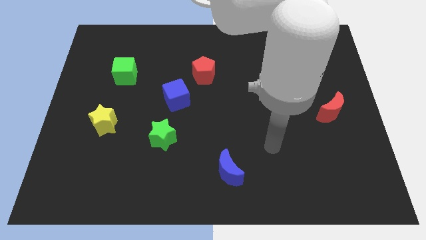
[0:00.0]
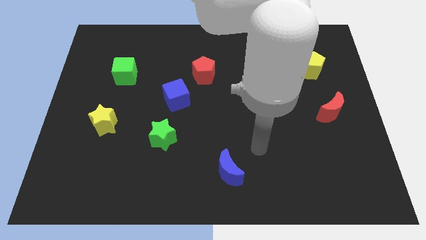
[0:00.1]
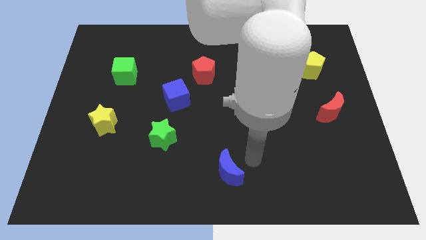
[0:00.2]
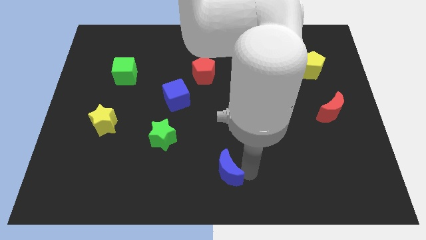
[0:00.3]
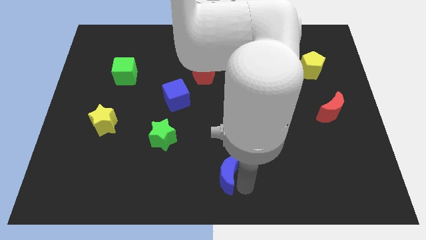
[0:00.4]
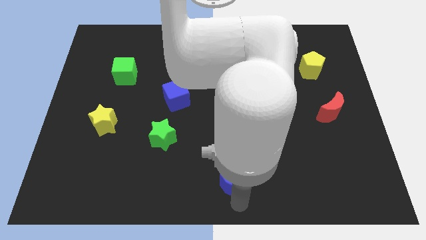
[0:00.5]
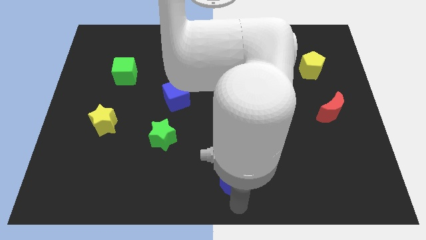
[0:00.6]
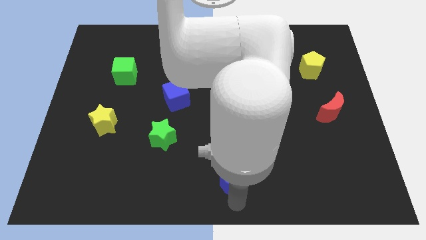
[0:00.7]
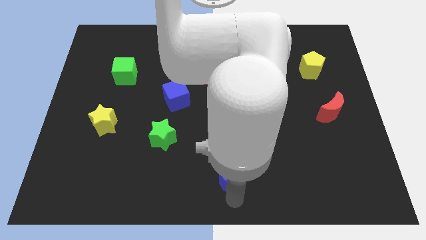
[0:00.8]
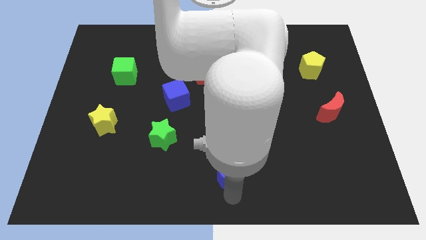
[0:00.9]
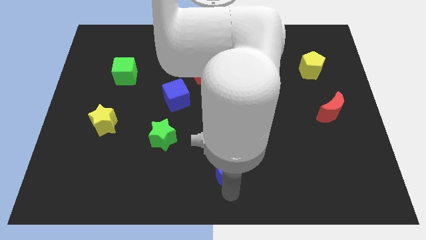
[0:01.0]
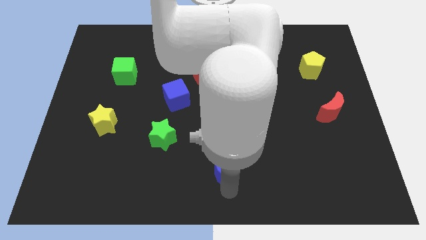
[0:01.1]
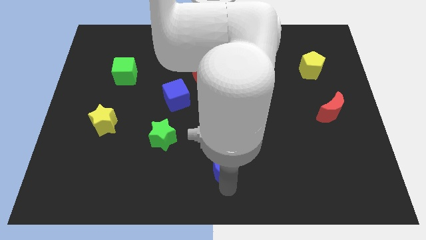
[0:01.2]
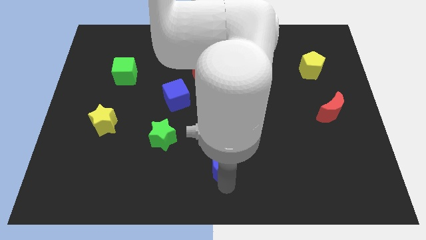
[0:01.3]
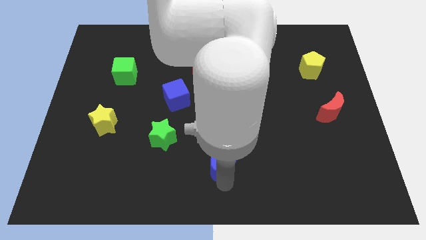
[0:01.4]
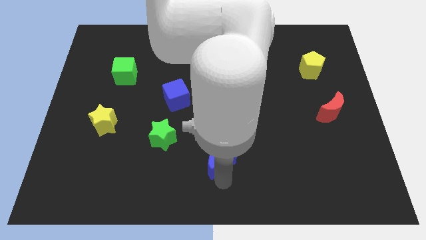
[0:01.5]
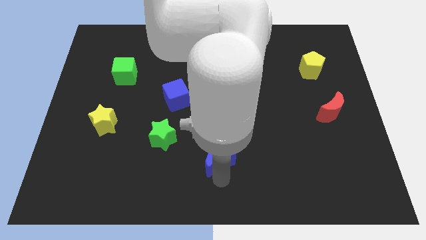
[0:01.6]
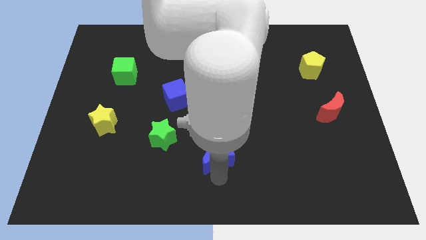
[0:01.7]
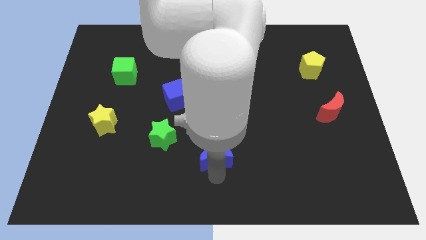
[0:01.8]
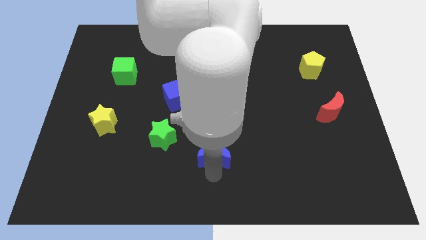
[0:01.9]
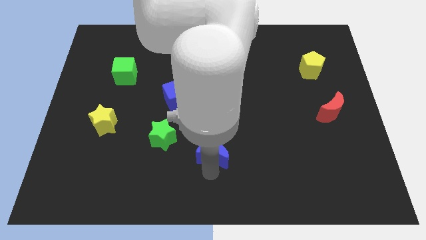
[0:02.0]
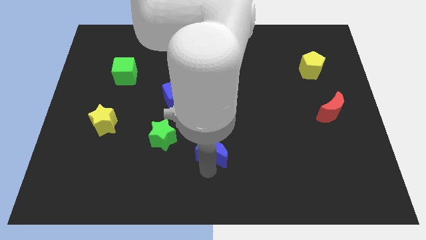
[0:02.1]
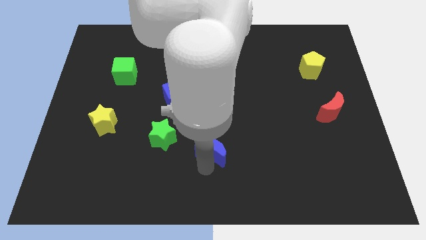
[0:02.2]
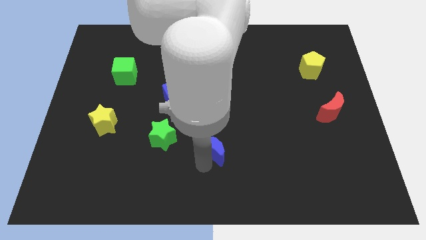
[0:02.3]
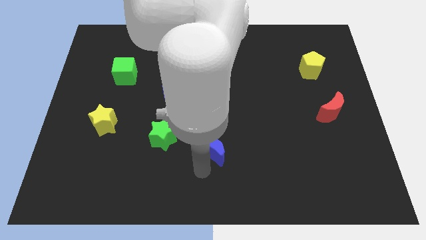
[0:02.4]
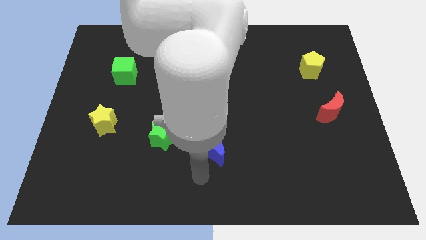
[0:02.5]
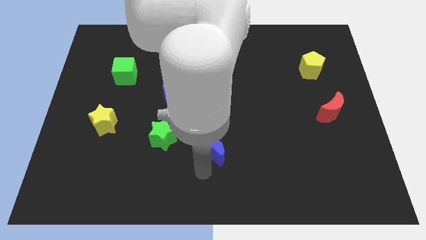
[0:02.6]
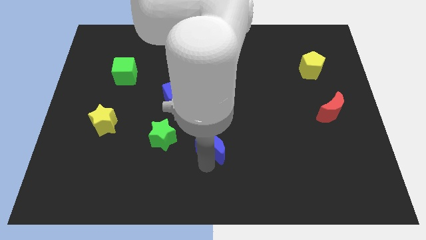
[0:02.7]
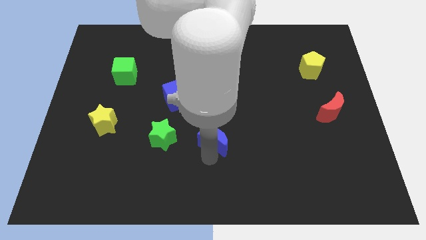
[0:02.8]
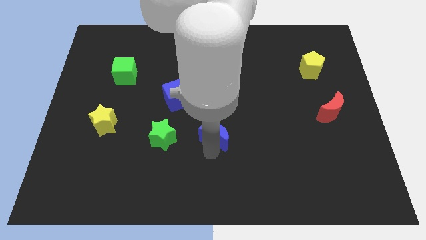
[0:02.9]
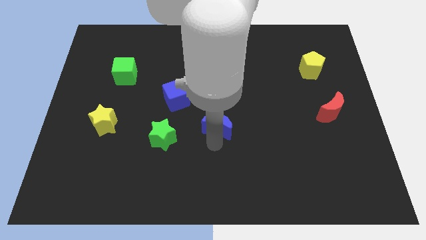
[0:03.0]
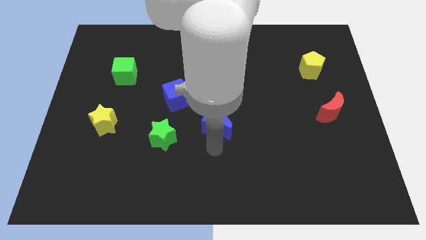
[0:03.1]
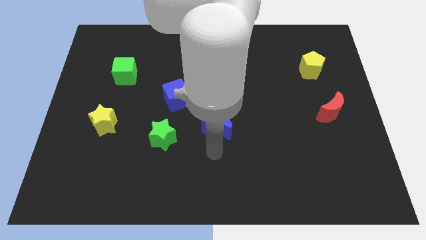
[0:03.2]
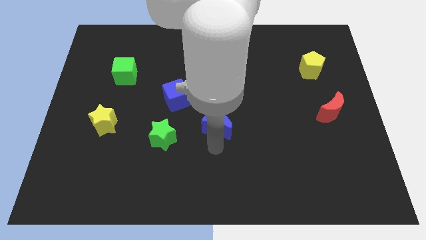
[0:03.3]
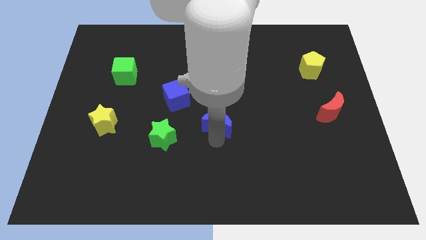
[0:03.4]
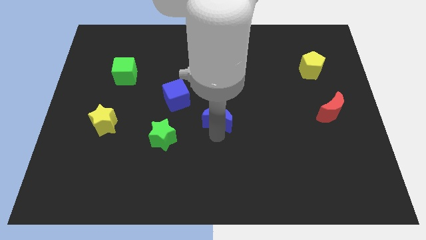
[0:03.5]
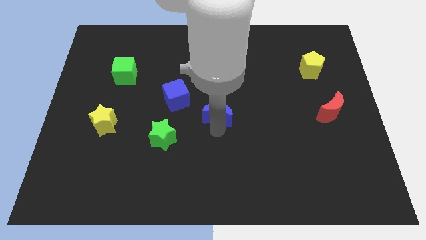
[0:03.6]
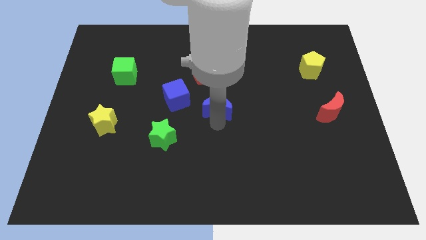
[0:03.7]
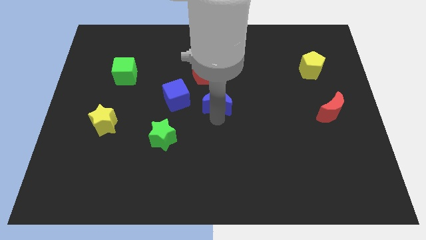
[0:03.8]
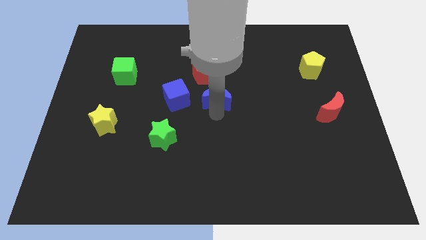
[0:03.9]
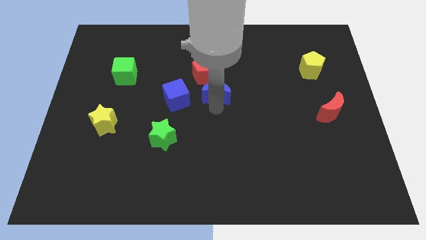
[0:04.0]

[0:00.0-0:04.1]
push the blue moon upwards

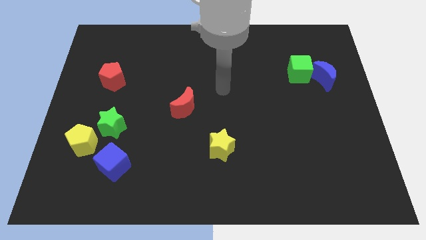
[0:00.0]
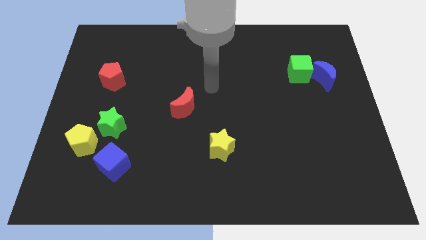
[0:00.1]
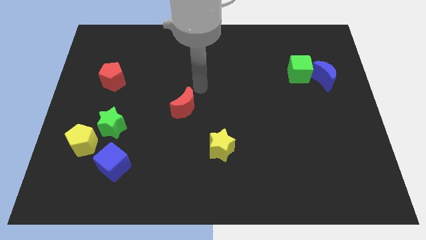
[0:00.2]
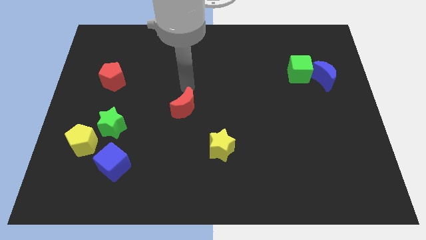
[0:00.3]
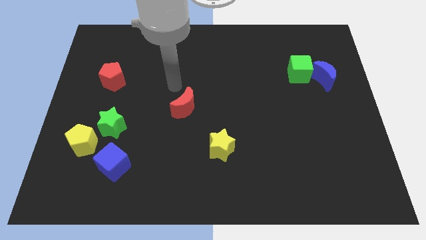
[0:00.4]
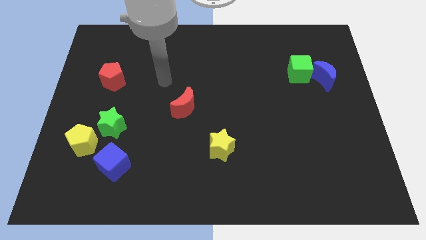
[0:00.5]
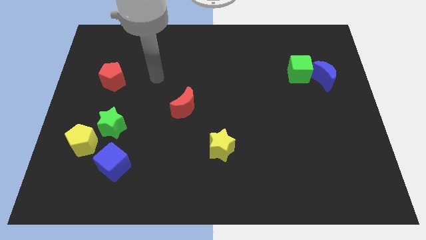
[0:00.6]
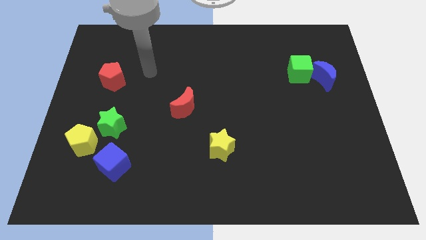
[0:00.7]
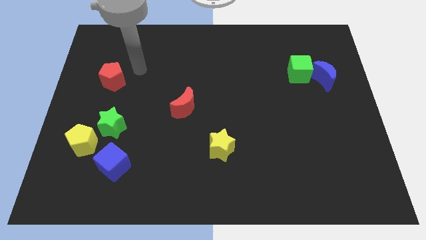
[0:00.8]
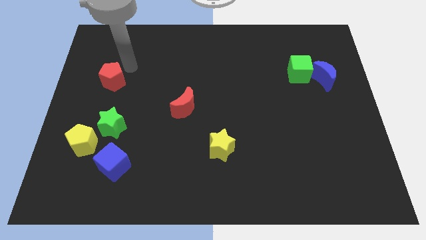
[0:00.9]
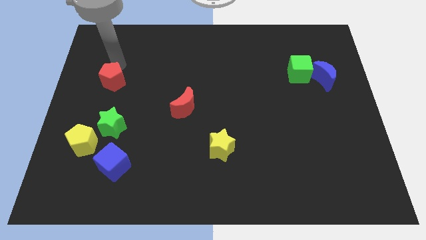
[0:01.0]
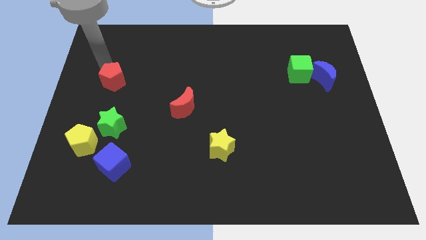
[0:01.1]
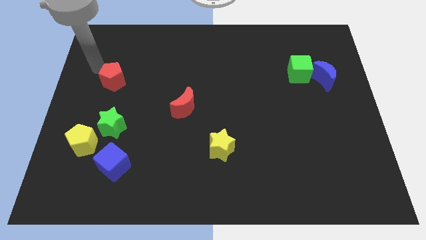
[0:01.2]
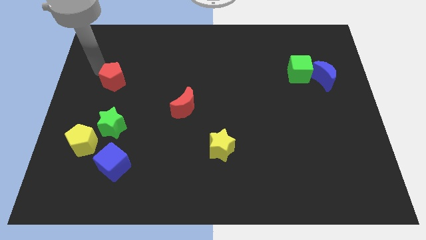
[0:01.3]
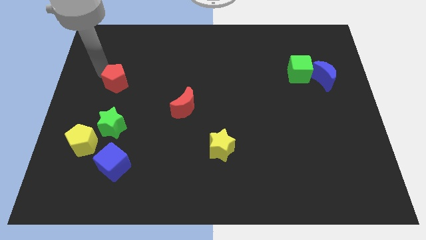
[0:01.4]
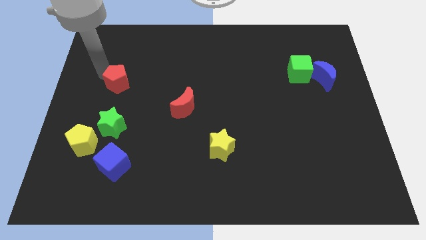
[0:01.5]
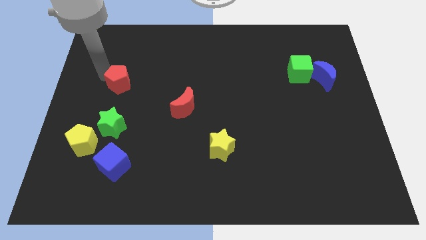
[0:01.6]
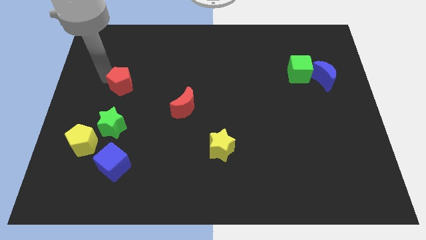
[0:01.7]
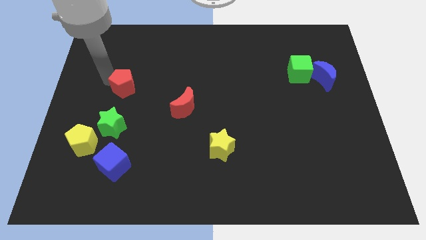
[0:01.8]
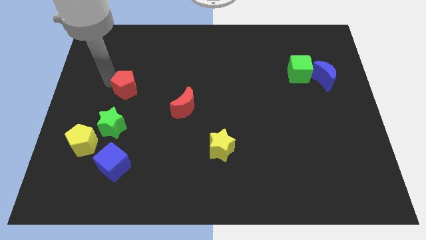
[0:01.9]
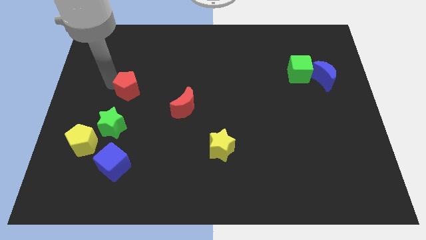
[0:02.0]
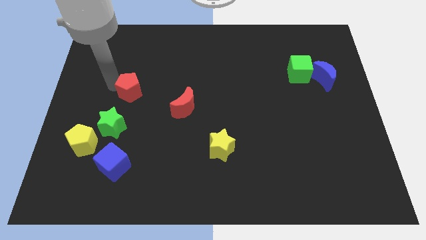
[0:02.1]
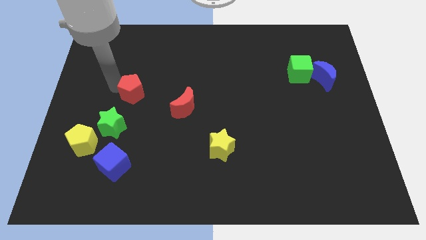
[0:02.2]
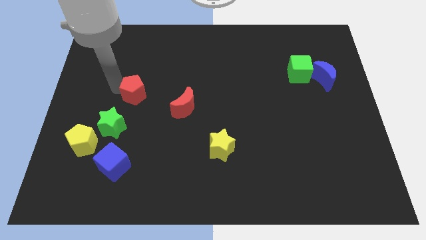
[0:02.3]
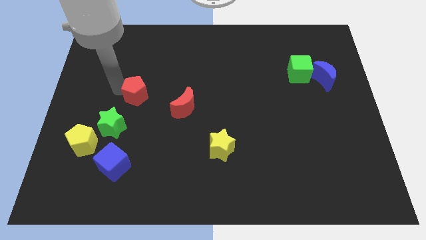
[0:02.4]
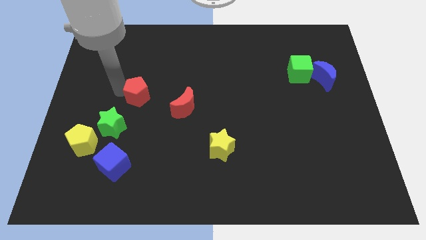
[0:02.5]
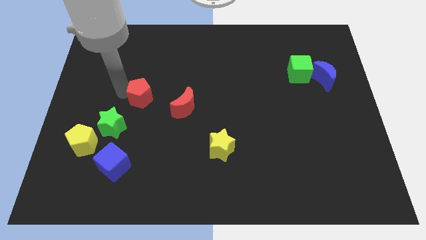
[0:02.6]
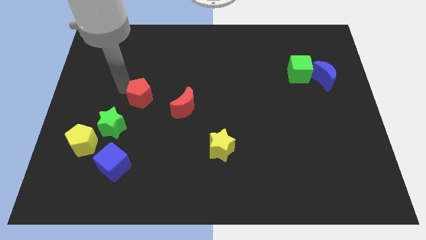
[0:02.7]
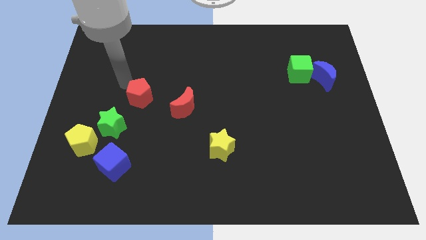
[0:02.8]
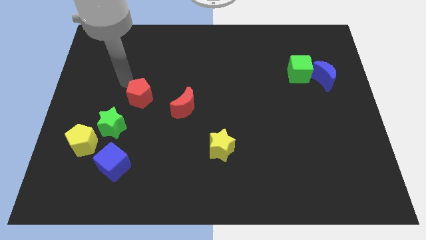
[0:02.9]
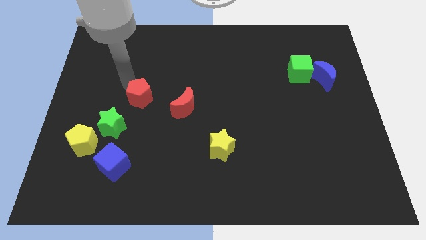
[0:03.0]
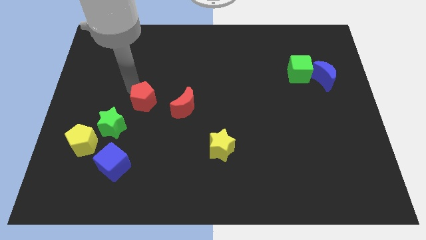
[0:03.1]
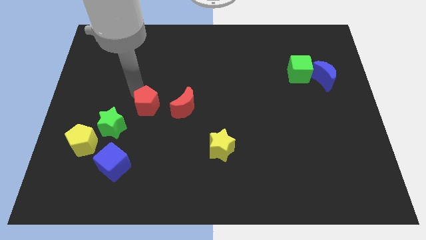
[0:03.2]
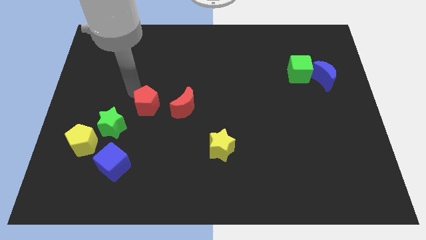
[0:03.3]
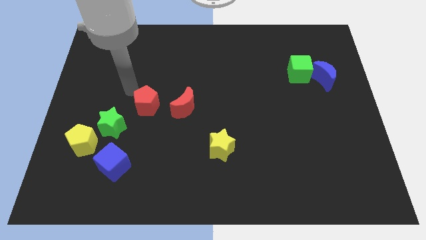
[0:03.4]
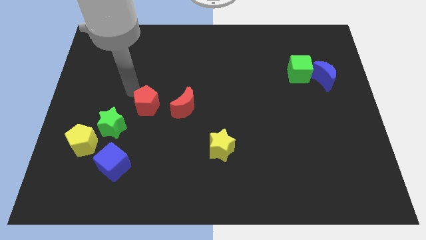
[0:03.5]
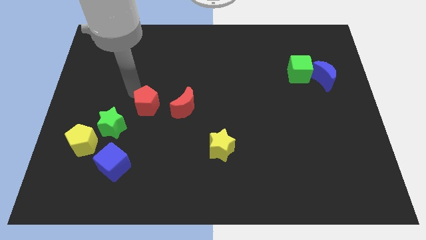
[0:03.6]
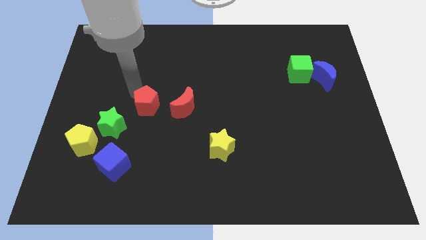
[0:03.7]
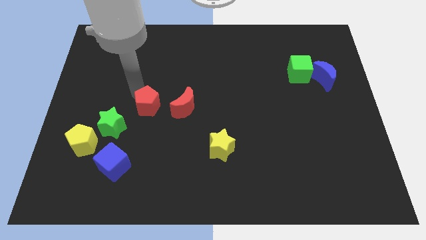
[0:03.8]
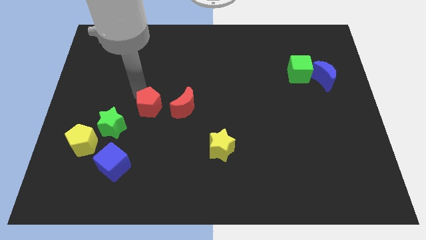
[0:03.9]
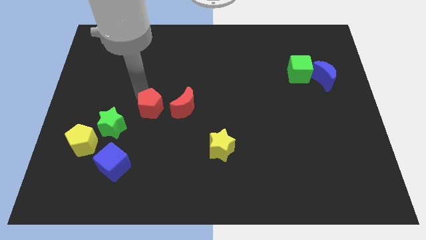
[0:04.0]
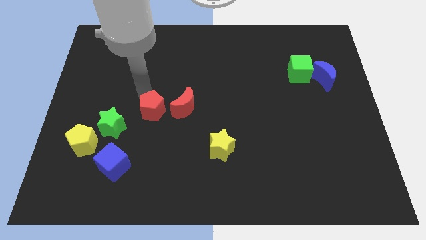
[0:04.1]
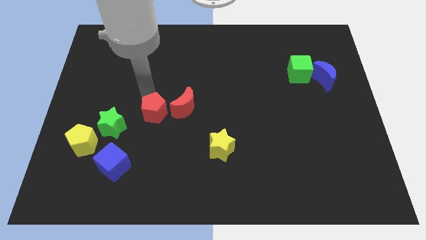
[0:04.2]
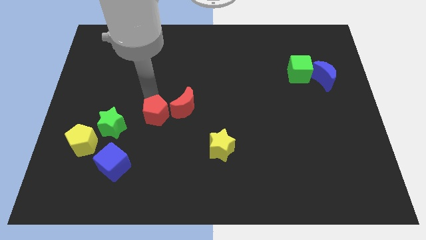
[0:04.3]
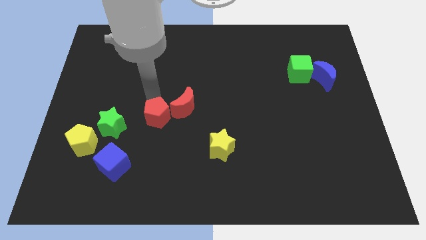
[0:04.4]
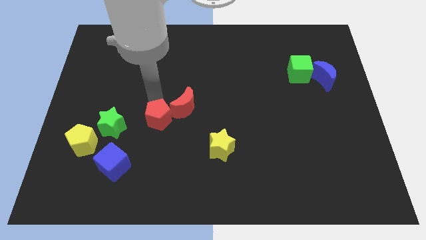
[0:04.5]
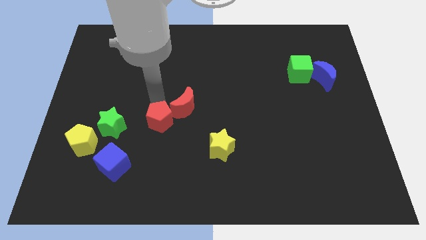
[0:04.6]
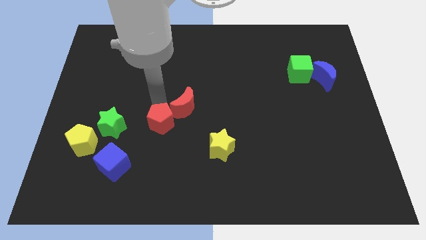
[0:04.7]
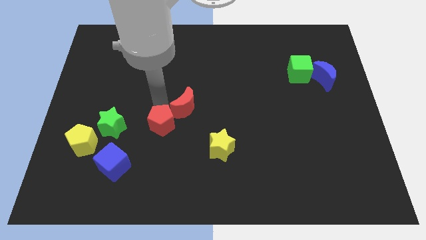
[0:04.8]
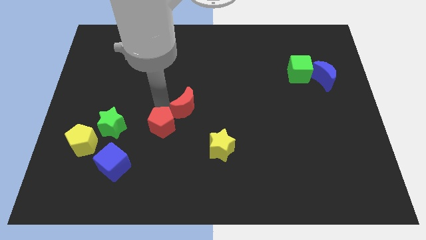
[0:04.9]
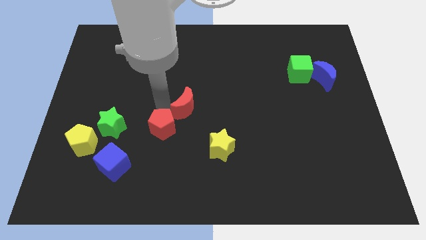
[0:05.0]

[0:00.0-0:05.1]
move the red pentagon downwards and then to the right
